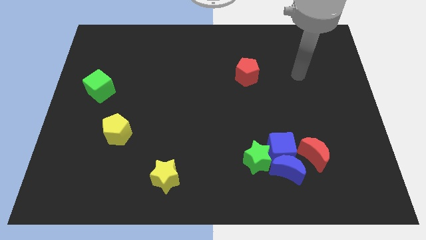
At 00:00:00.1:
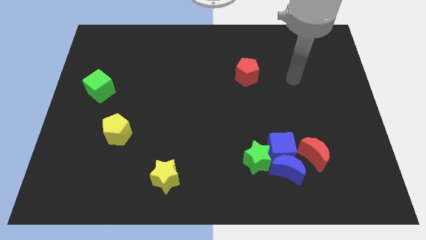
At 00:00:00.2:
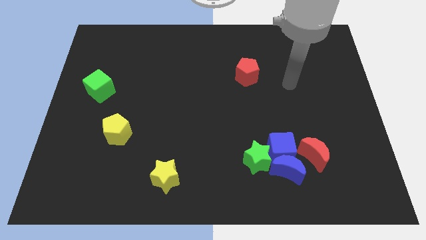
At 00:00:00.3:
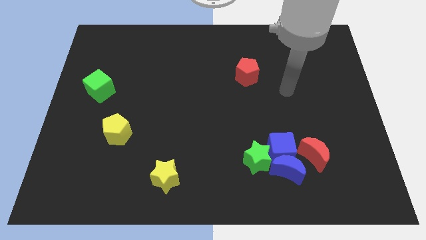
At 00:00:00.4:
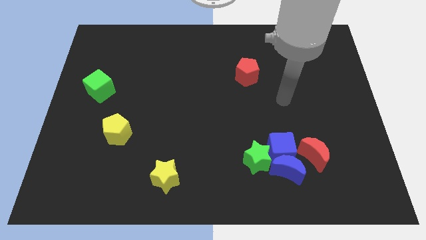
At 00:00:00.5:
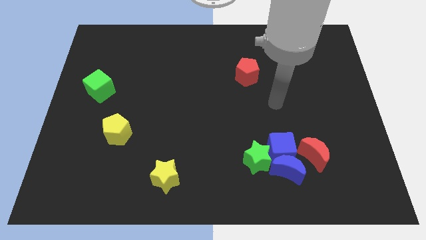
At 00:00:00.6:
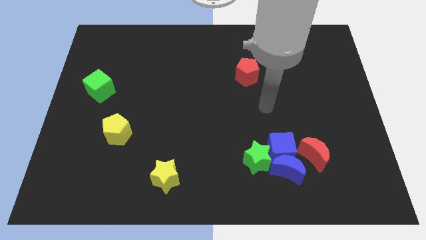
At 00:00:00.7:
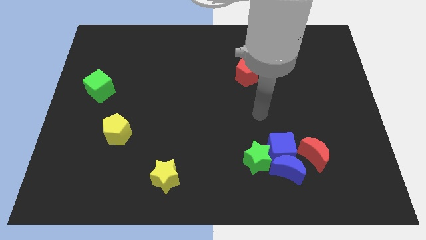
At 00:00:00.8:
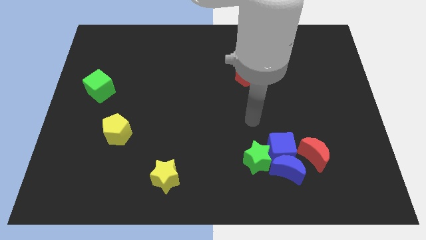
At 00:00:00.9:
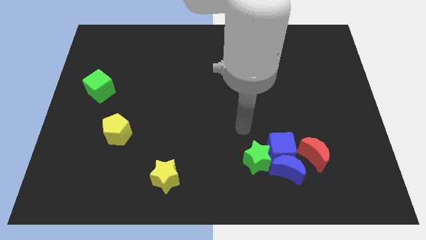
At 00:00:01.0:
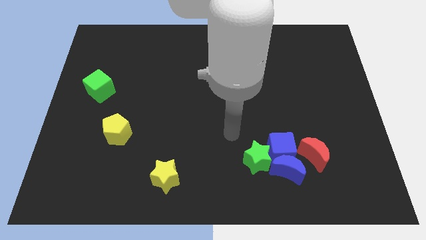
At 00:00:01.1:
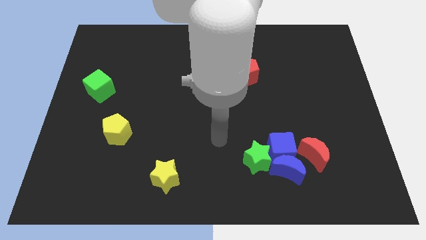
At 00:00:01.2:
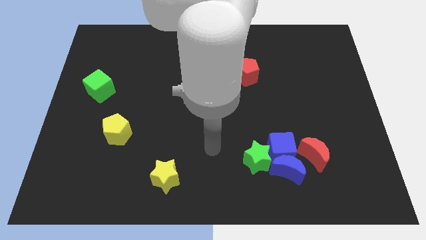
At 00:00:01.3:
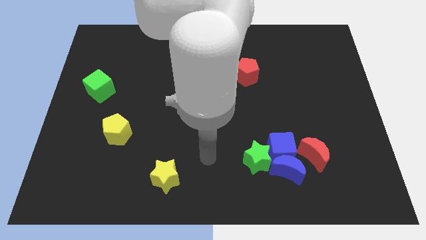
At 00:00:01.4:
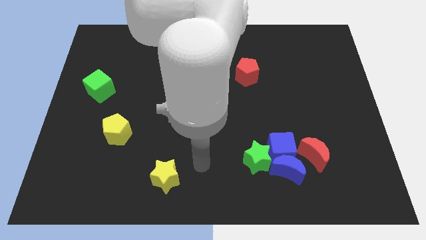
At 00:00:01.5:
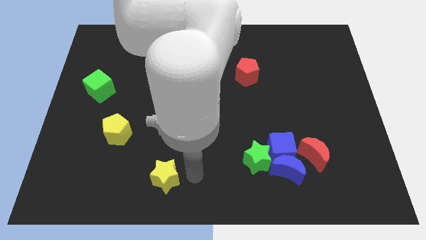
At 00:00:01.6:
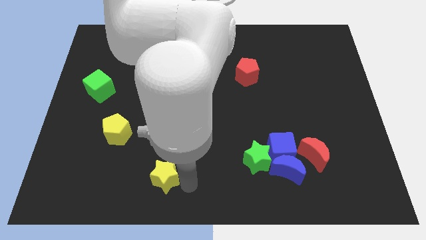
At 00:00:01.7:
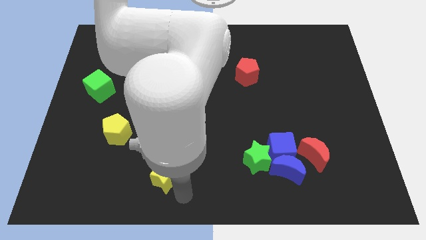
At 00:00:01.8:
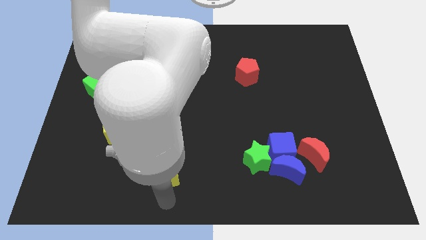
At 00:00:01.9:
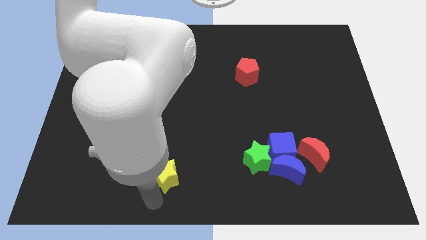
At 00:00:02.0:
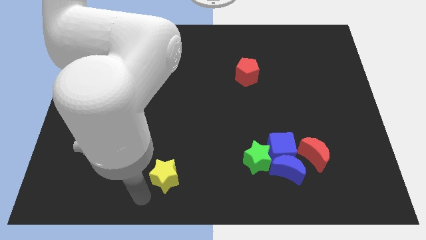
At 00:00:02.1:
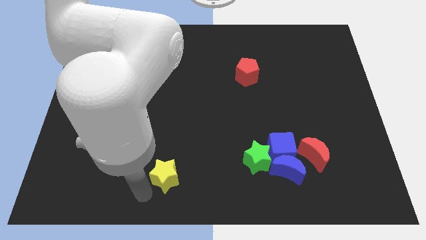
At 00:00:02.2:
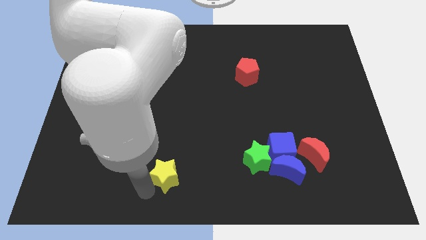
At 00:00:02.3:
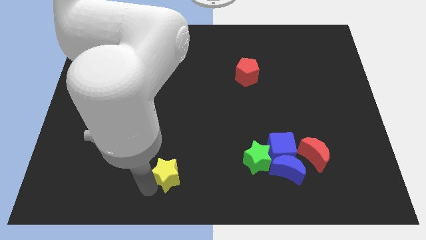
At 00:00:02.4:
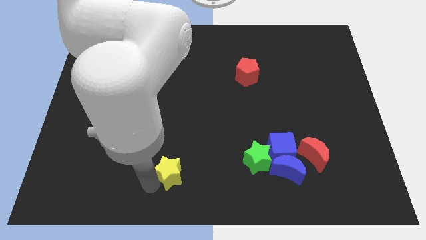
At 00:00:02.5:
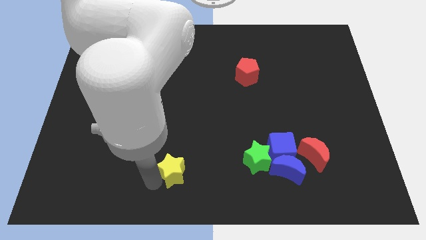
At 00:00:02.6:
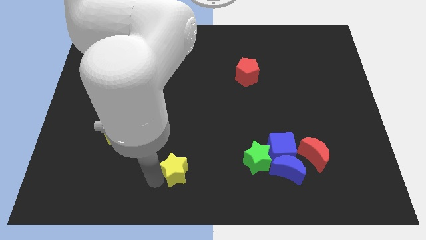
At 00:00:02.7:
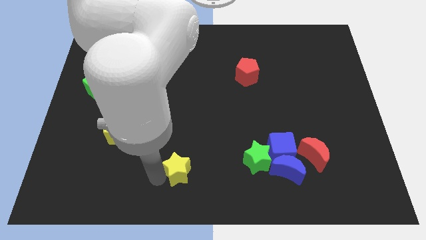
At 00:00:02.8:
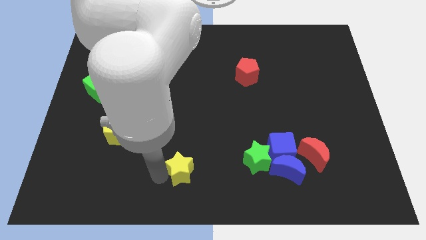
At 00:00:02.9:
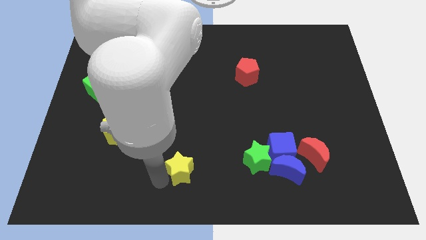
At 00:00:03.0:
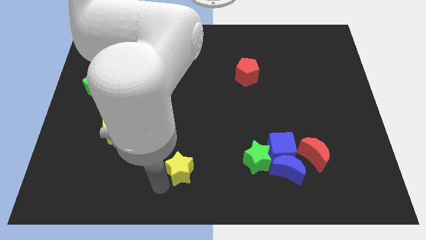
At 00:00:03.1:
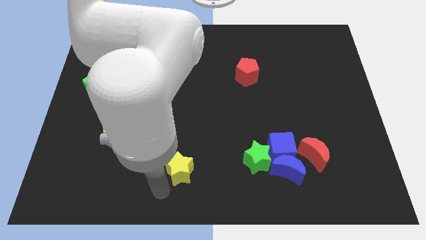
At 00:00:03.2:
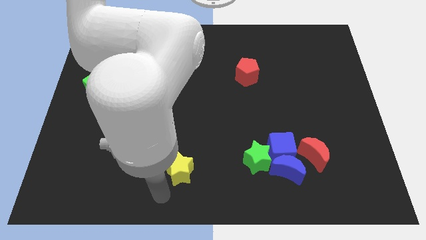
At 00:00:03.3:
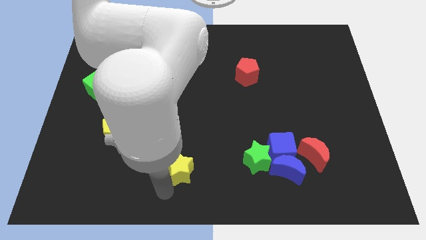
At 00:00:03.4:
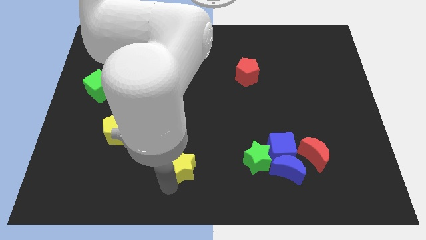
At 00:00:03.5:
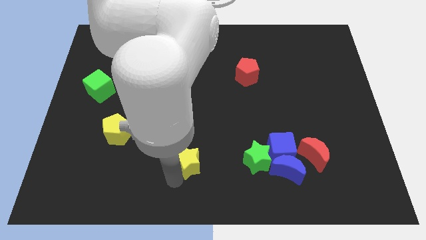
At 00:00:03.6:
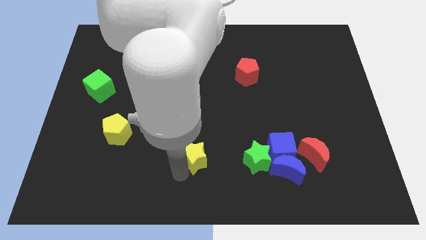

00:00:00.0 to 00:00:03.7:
move the yellow star diagonally up and right slightly

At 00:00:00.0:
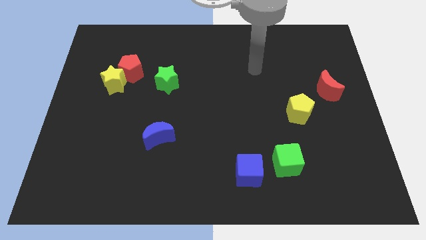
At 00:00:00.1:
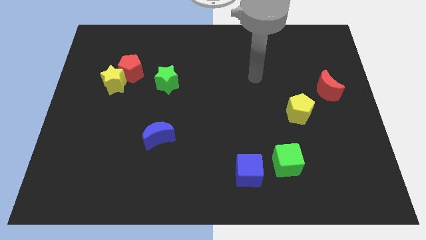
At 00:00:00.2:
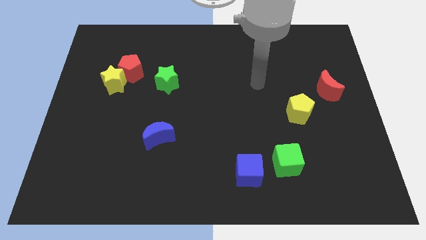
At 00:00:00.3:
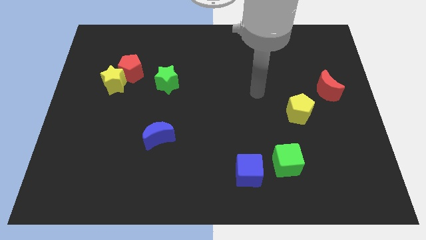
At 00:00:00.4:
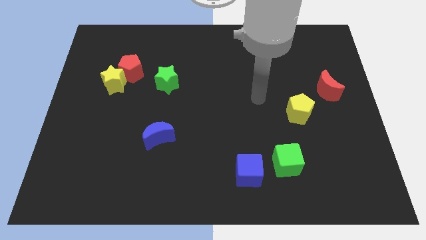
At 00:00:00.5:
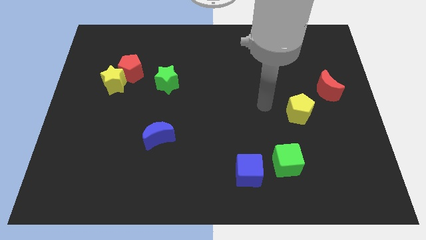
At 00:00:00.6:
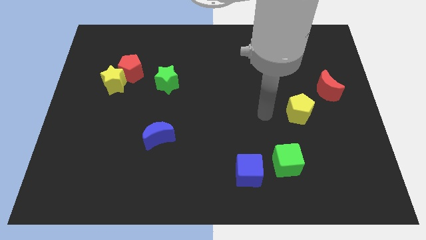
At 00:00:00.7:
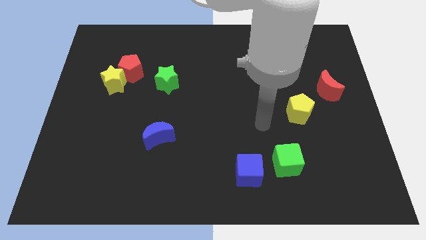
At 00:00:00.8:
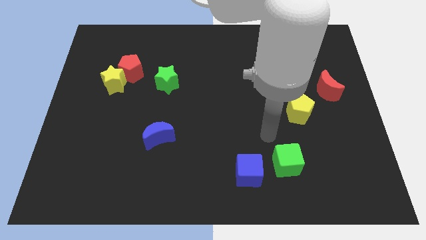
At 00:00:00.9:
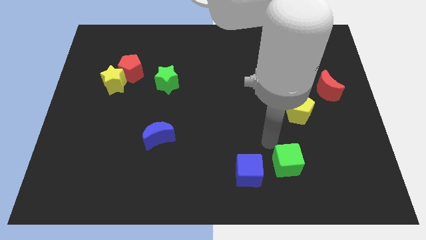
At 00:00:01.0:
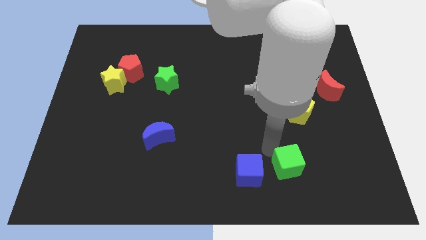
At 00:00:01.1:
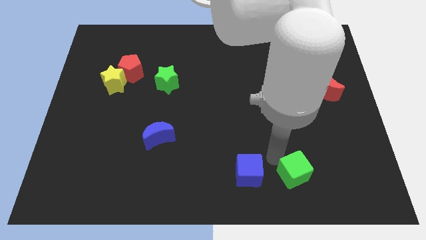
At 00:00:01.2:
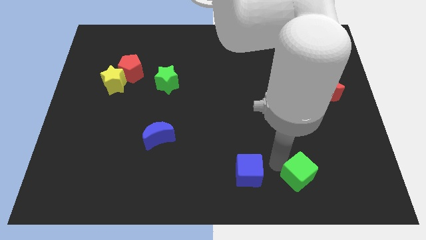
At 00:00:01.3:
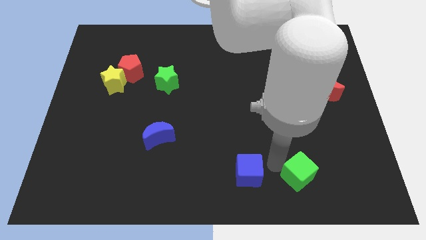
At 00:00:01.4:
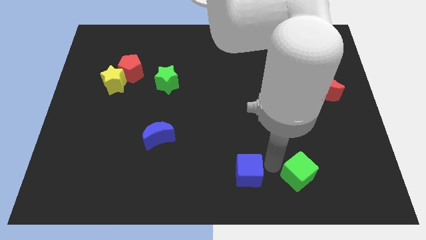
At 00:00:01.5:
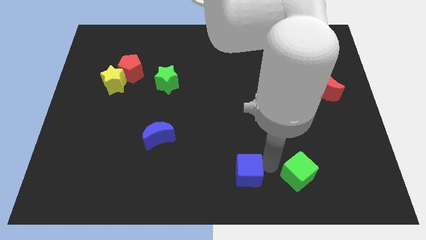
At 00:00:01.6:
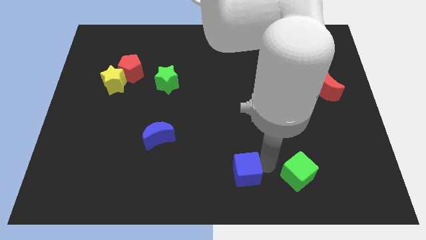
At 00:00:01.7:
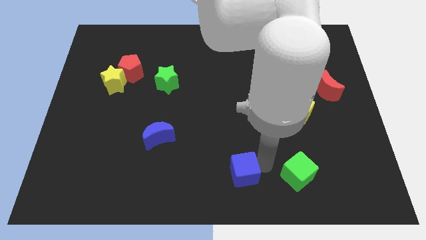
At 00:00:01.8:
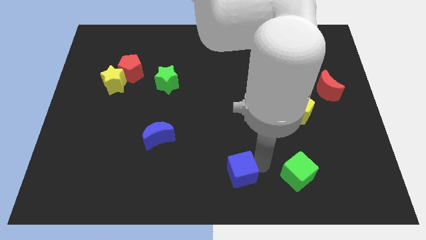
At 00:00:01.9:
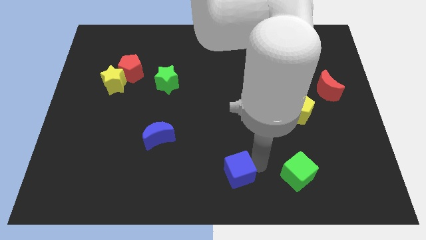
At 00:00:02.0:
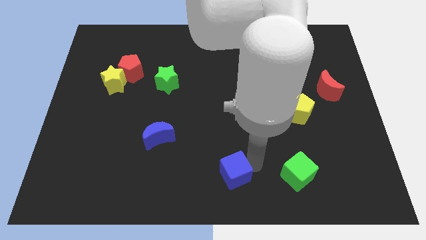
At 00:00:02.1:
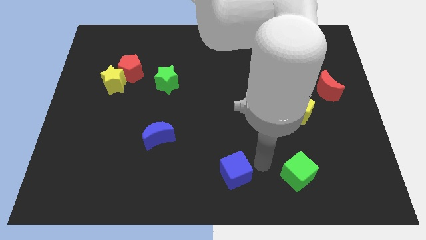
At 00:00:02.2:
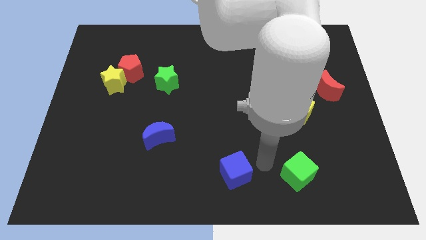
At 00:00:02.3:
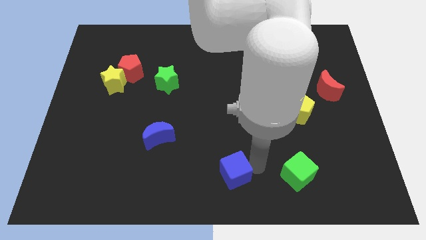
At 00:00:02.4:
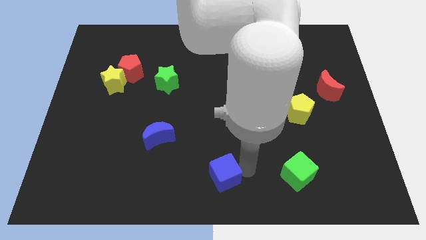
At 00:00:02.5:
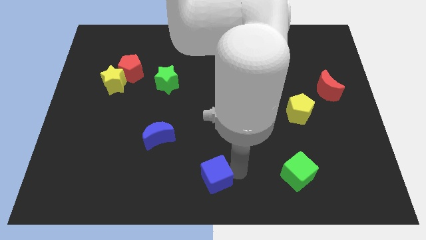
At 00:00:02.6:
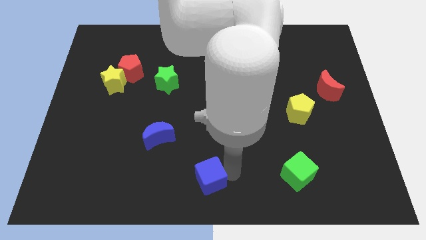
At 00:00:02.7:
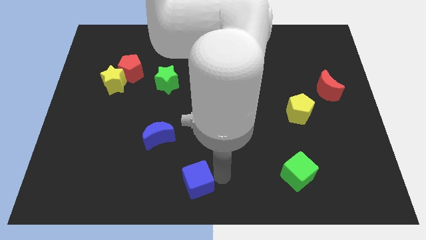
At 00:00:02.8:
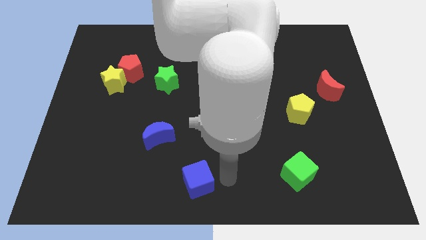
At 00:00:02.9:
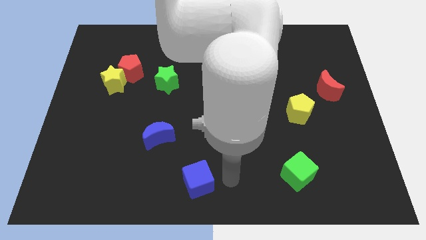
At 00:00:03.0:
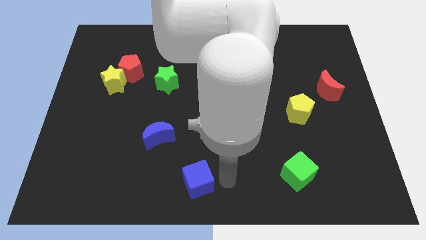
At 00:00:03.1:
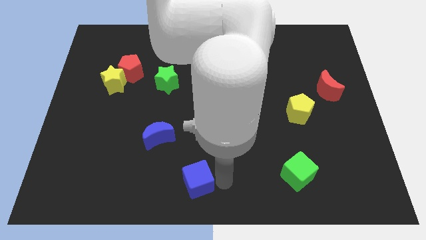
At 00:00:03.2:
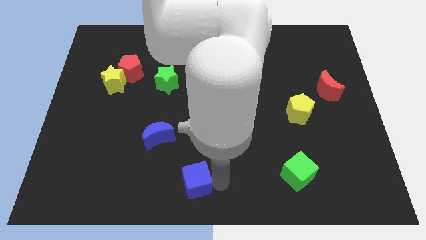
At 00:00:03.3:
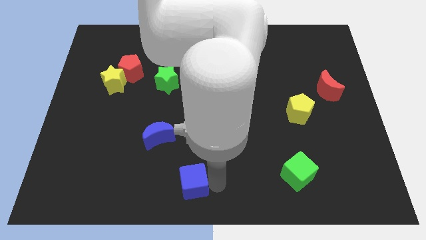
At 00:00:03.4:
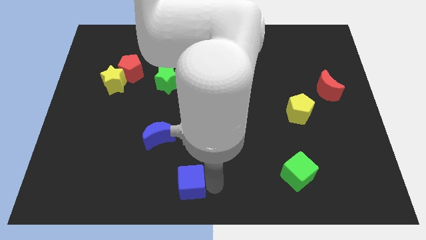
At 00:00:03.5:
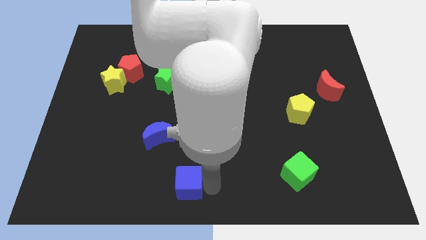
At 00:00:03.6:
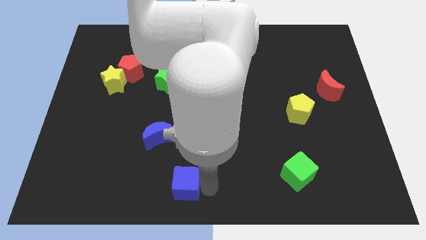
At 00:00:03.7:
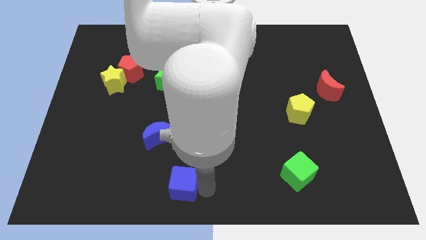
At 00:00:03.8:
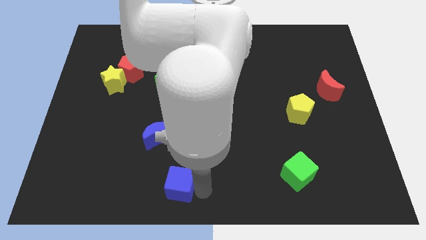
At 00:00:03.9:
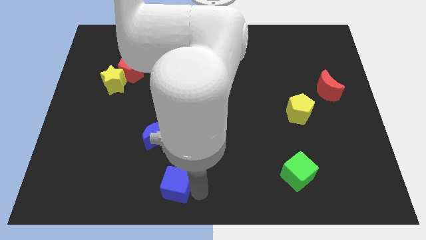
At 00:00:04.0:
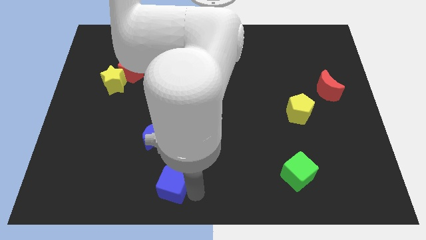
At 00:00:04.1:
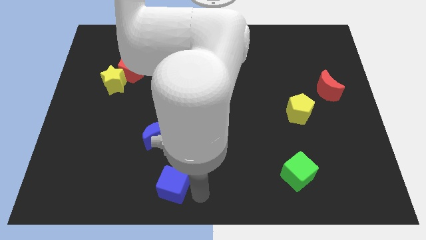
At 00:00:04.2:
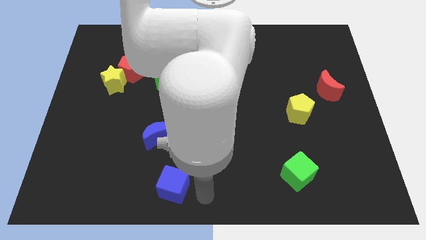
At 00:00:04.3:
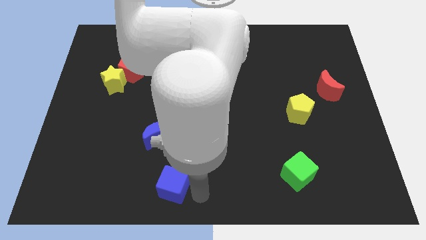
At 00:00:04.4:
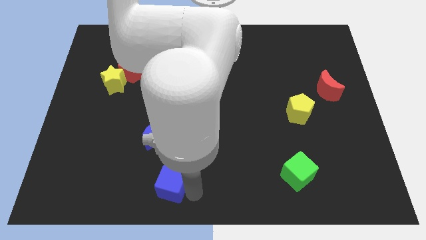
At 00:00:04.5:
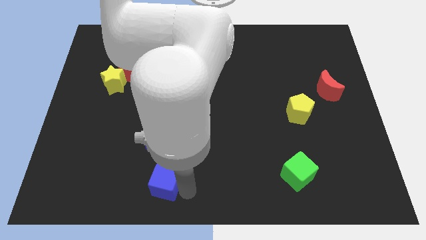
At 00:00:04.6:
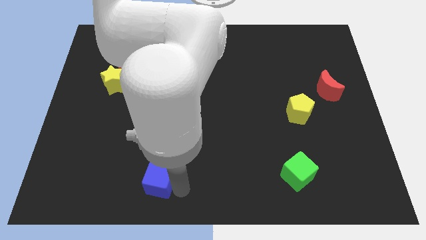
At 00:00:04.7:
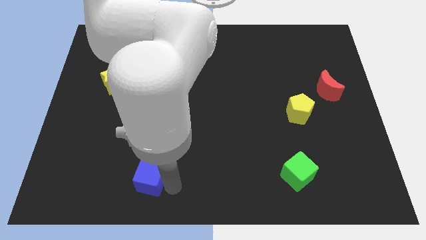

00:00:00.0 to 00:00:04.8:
push the blue cube to the left
